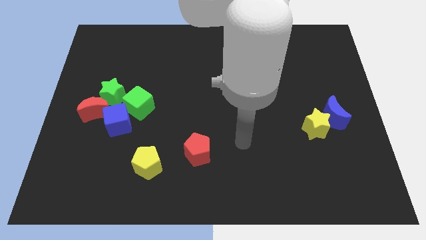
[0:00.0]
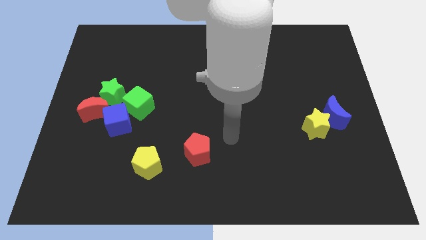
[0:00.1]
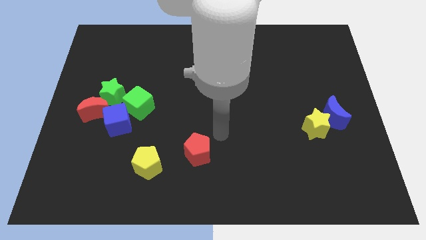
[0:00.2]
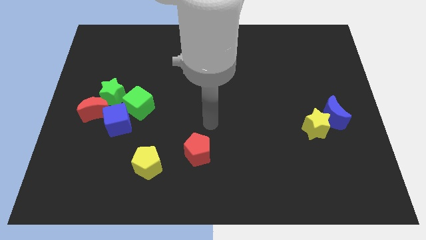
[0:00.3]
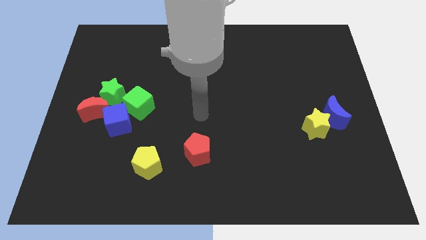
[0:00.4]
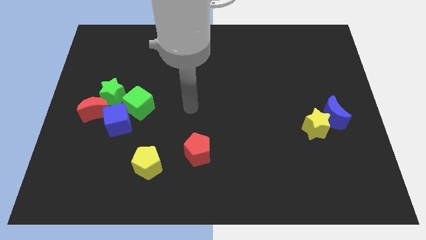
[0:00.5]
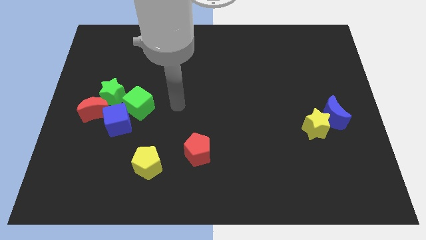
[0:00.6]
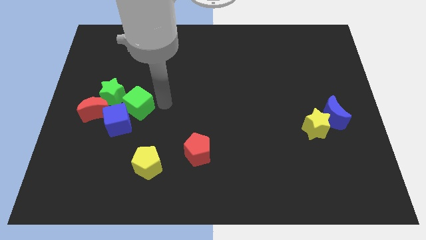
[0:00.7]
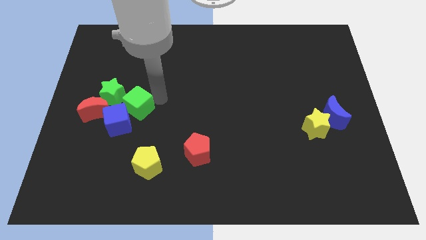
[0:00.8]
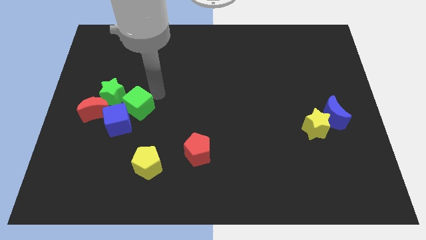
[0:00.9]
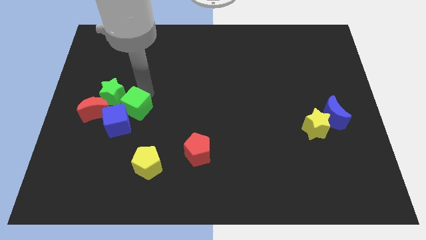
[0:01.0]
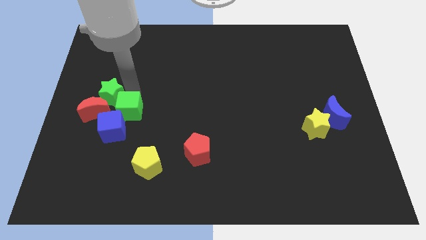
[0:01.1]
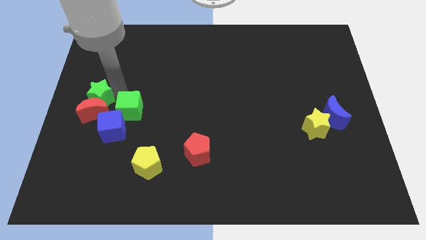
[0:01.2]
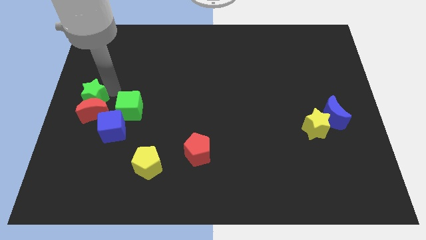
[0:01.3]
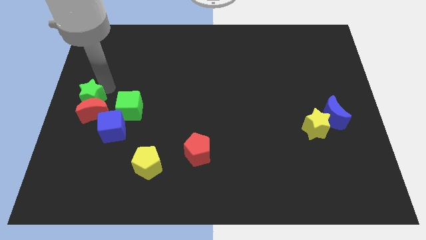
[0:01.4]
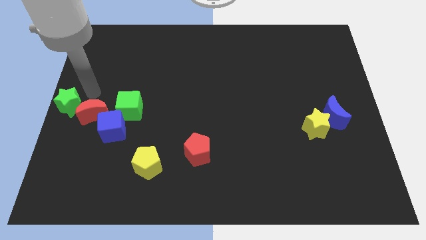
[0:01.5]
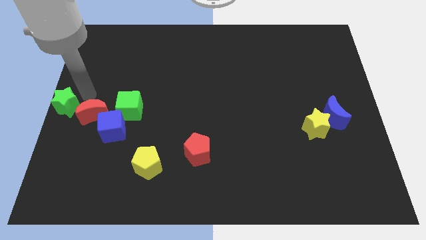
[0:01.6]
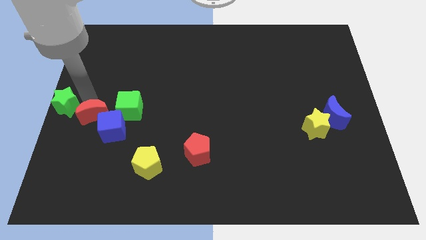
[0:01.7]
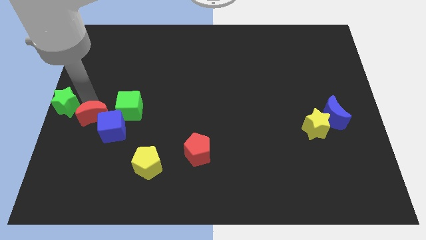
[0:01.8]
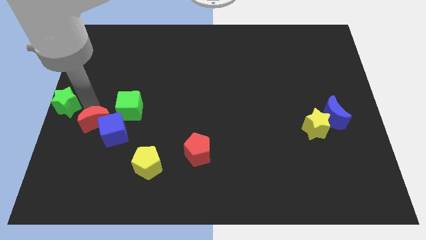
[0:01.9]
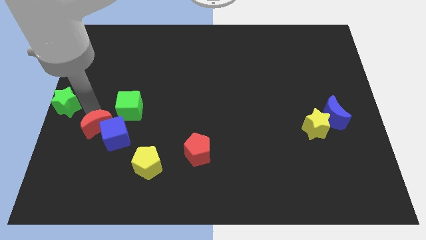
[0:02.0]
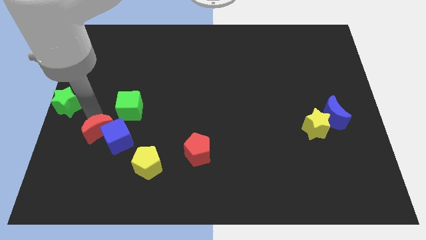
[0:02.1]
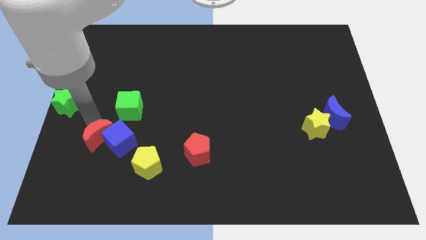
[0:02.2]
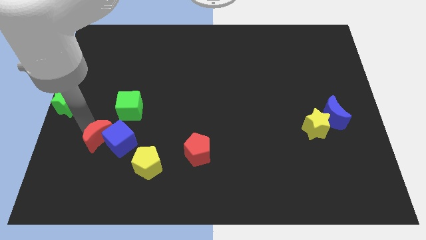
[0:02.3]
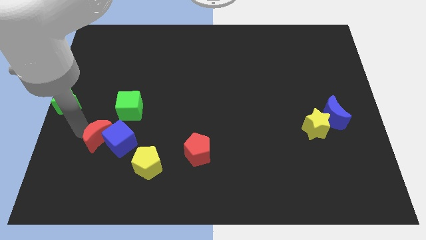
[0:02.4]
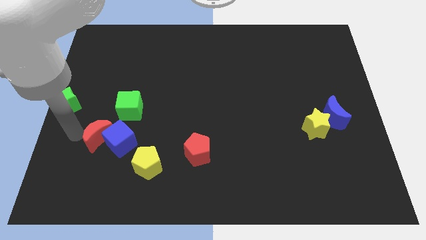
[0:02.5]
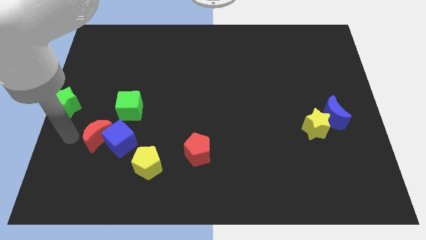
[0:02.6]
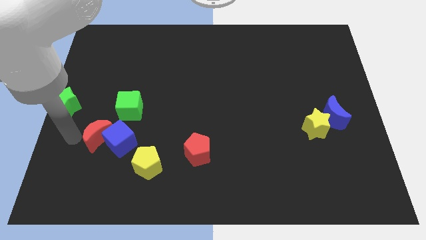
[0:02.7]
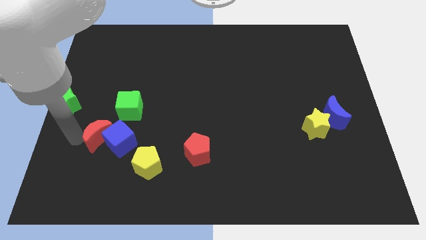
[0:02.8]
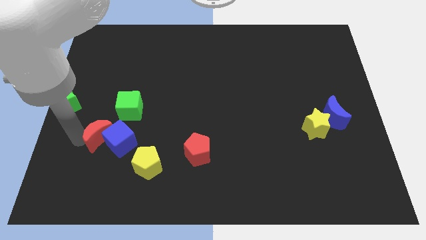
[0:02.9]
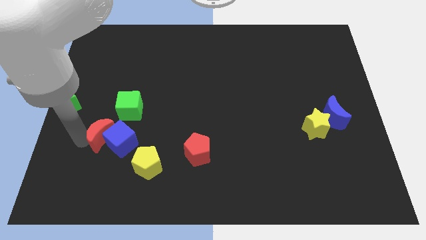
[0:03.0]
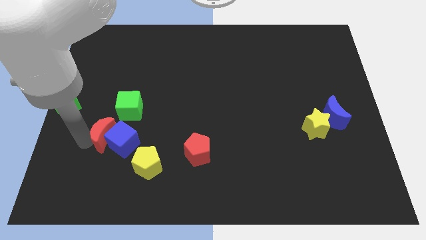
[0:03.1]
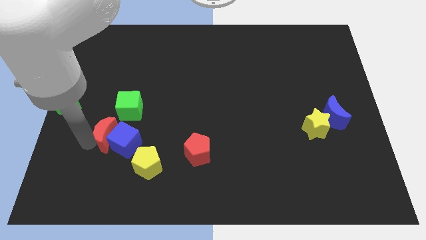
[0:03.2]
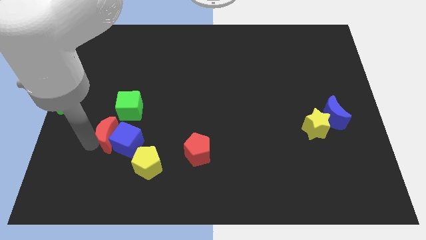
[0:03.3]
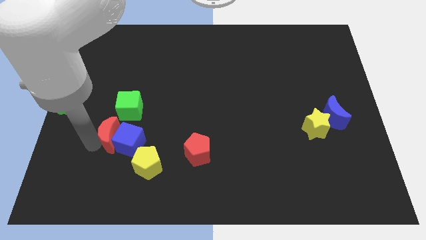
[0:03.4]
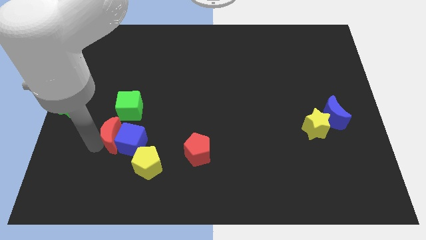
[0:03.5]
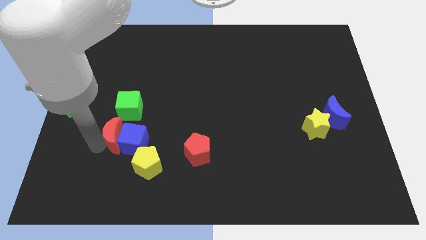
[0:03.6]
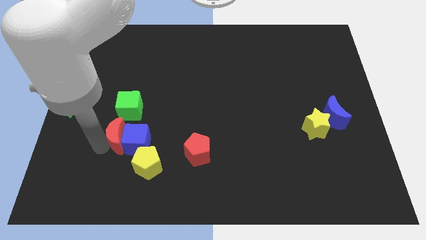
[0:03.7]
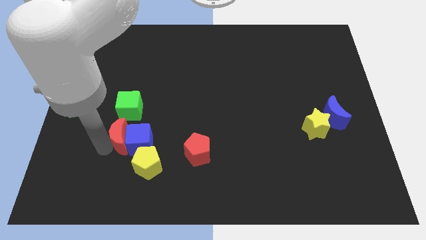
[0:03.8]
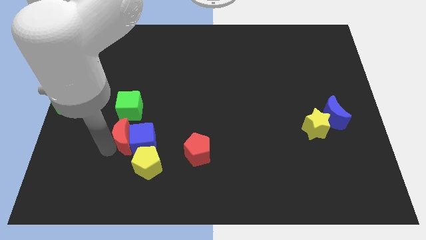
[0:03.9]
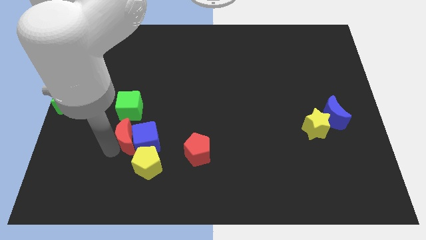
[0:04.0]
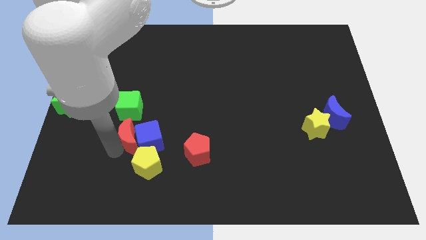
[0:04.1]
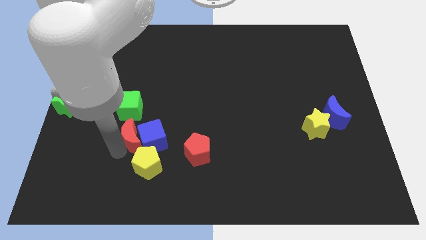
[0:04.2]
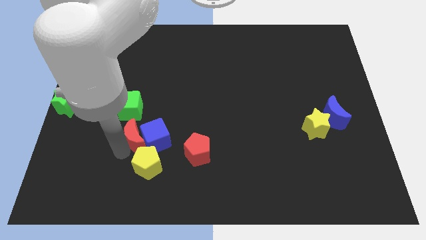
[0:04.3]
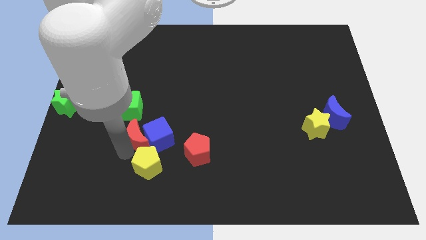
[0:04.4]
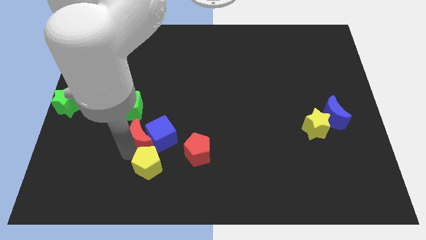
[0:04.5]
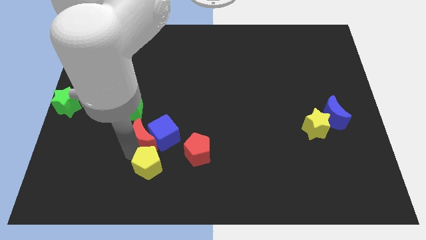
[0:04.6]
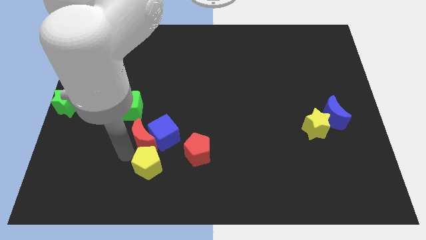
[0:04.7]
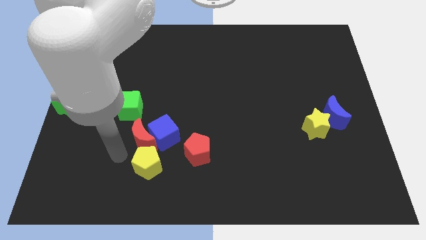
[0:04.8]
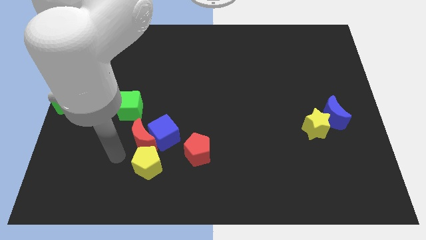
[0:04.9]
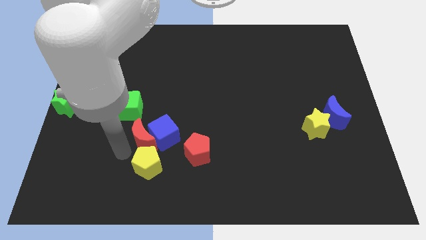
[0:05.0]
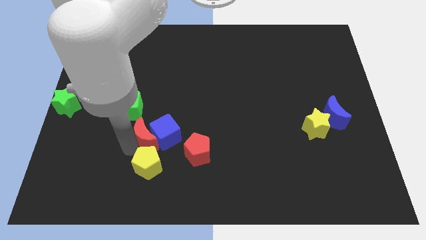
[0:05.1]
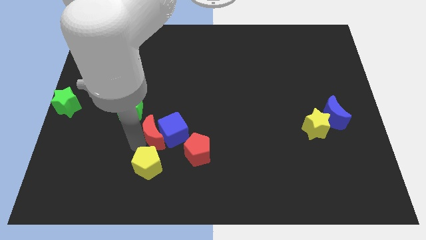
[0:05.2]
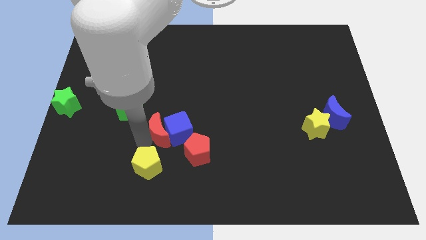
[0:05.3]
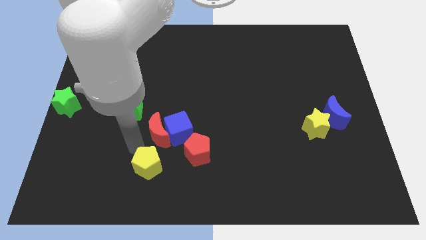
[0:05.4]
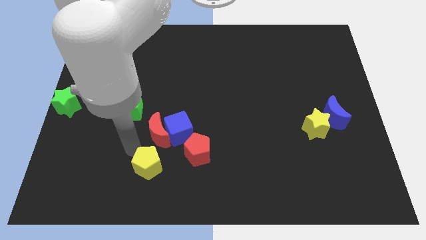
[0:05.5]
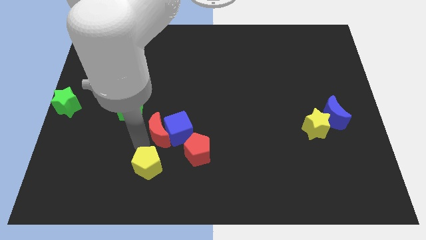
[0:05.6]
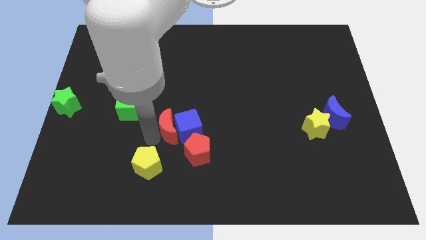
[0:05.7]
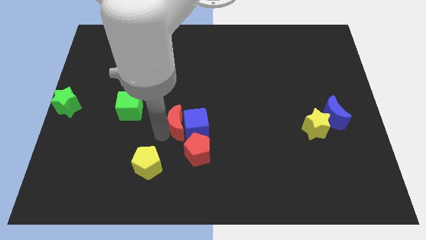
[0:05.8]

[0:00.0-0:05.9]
move the red moon to the center

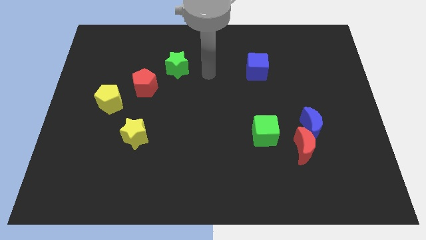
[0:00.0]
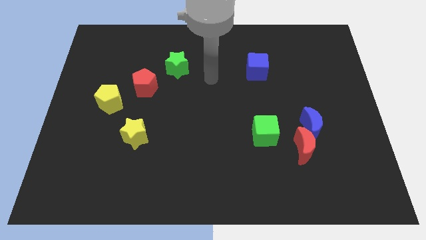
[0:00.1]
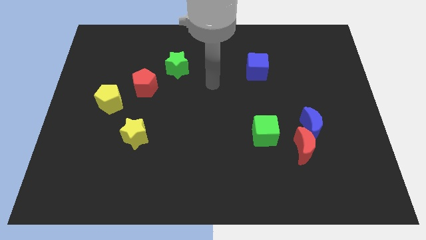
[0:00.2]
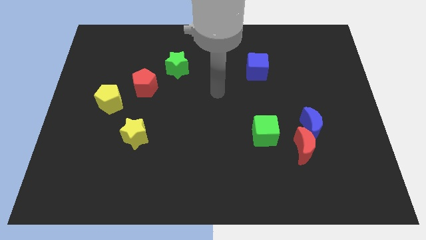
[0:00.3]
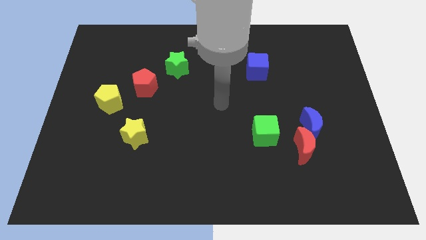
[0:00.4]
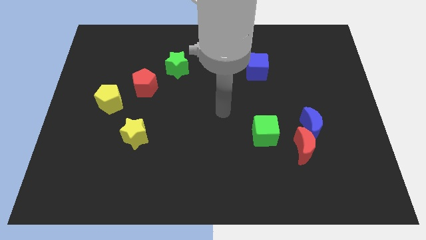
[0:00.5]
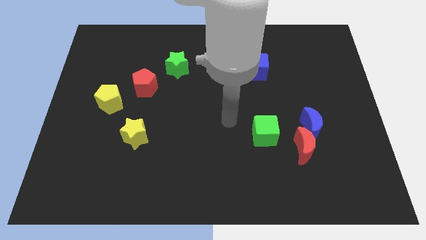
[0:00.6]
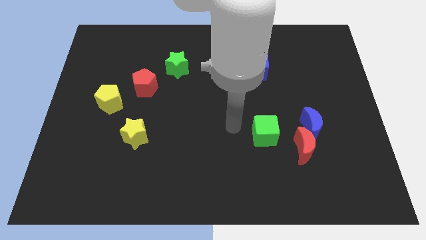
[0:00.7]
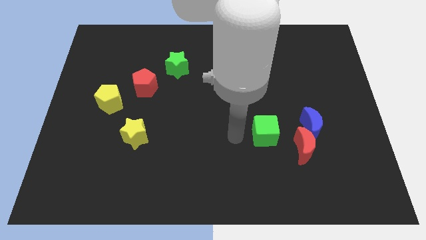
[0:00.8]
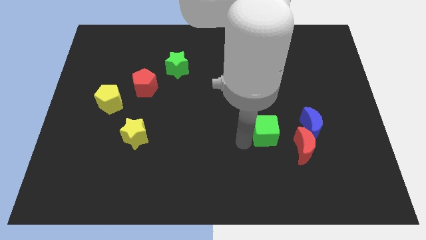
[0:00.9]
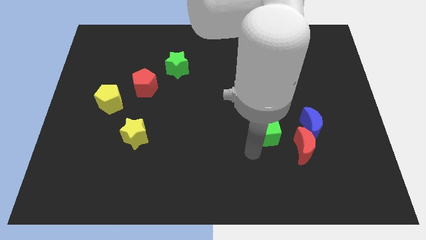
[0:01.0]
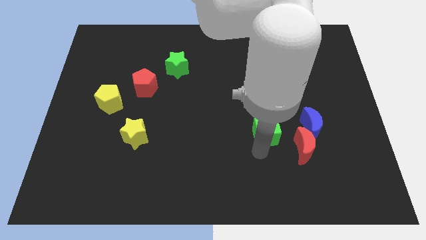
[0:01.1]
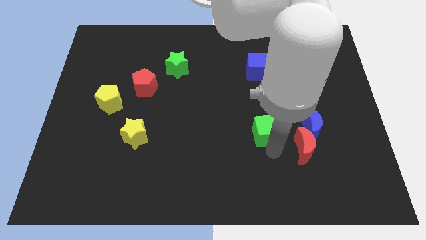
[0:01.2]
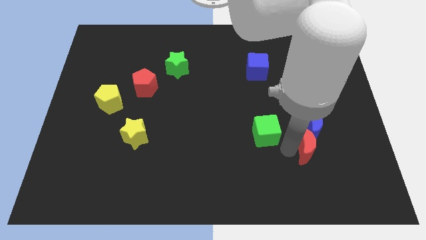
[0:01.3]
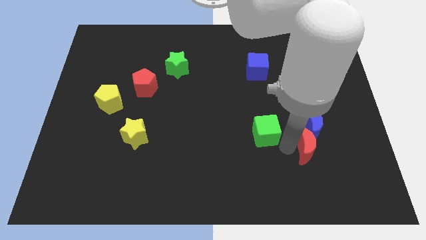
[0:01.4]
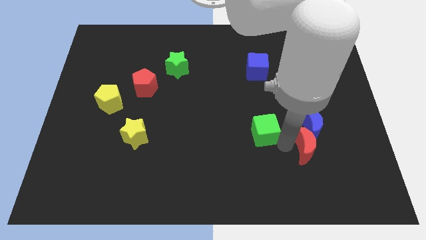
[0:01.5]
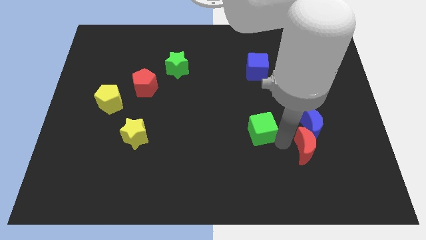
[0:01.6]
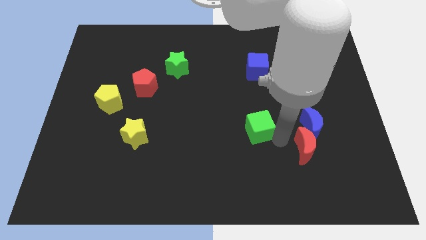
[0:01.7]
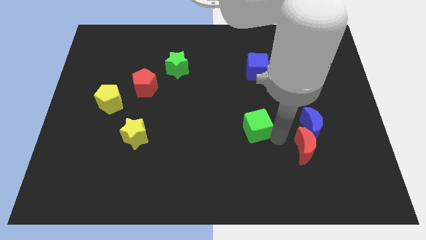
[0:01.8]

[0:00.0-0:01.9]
put the green cube to the center of the board
